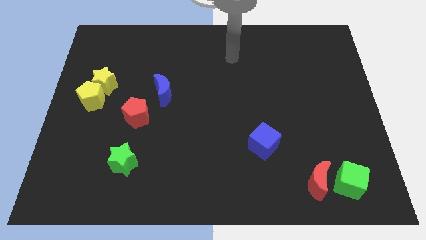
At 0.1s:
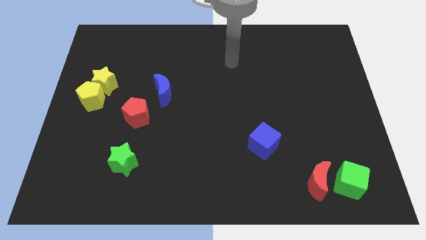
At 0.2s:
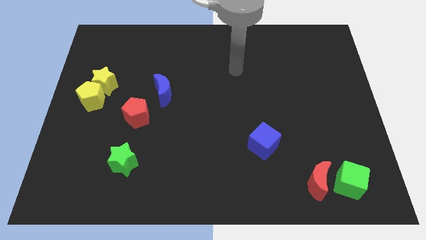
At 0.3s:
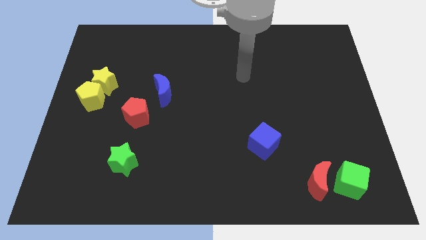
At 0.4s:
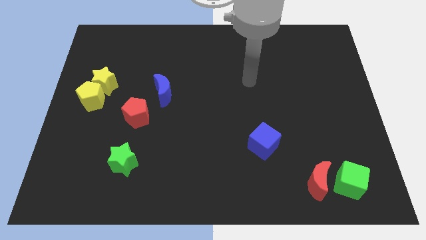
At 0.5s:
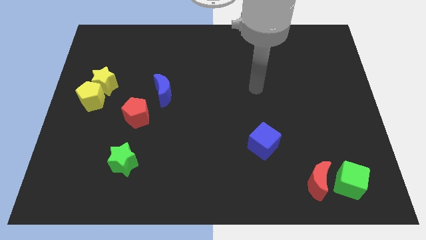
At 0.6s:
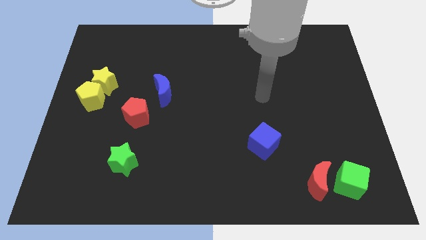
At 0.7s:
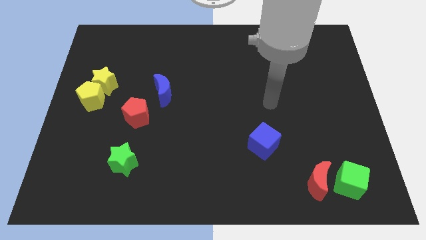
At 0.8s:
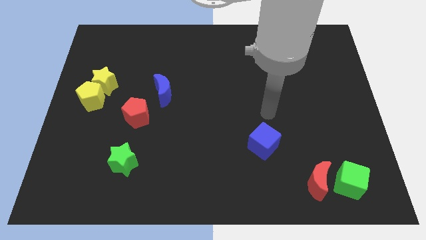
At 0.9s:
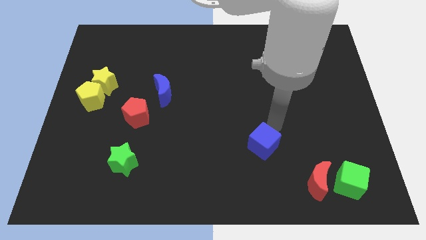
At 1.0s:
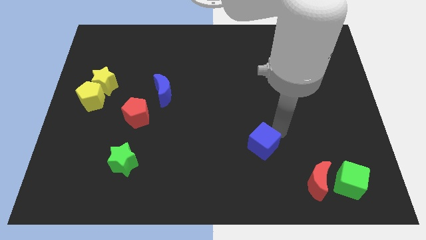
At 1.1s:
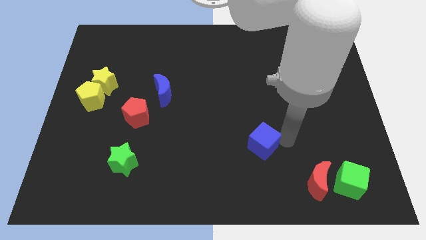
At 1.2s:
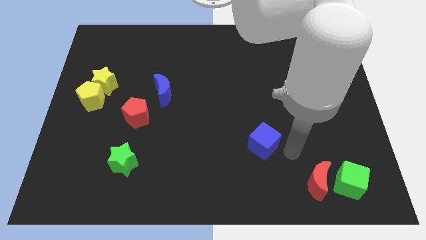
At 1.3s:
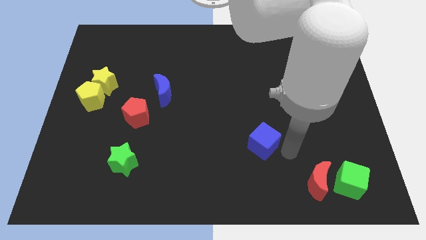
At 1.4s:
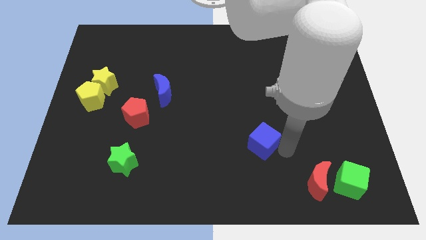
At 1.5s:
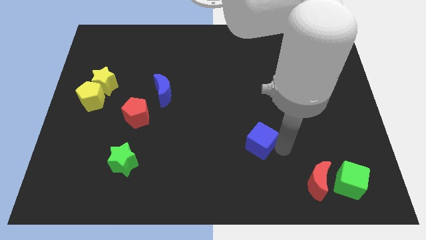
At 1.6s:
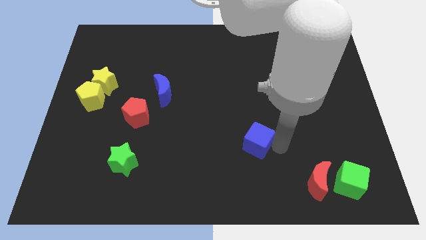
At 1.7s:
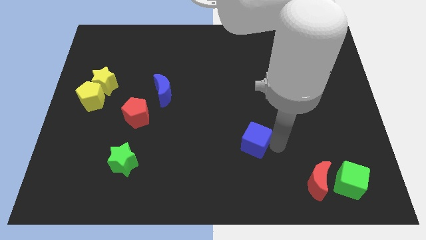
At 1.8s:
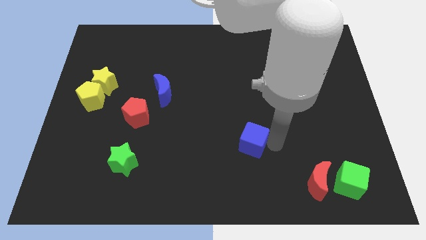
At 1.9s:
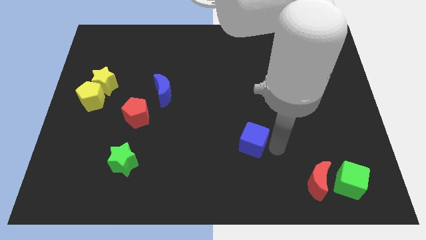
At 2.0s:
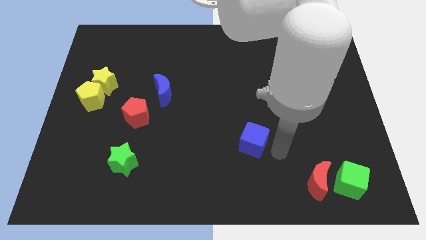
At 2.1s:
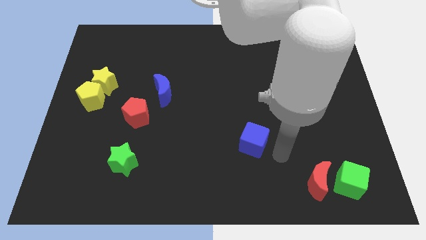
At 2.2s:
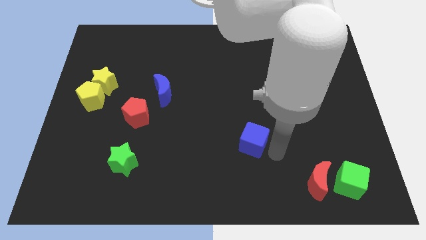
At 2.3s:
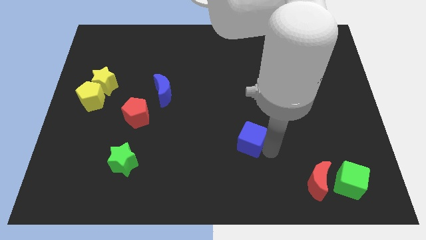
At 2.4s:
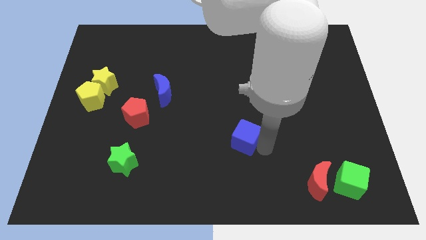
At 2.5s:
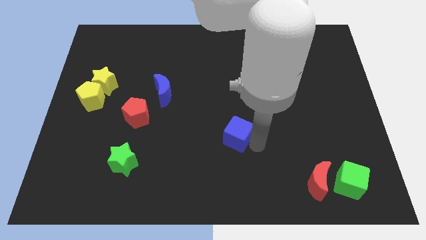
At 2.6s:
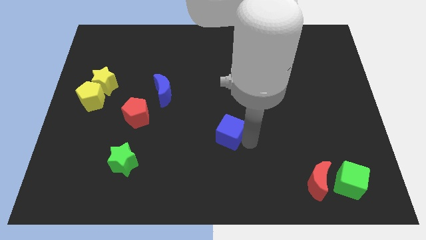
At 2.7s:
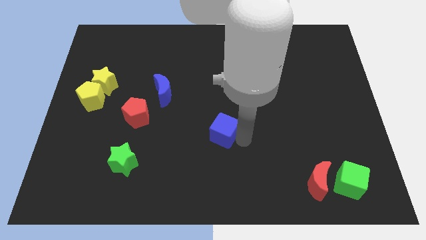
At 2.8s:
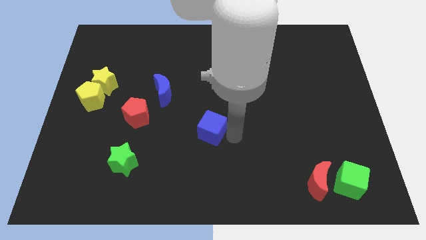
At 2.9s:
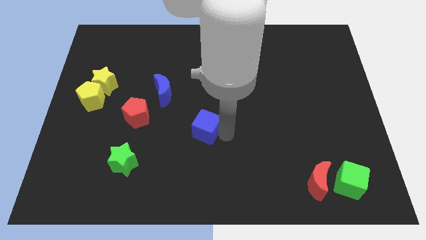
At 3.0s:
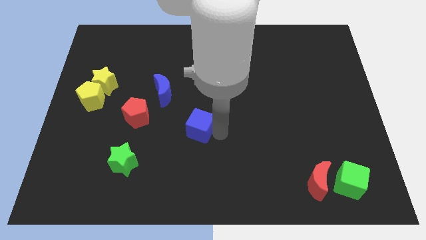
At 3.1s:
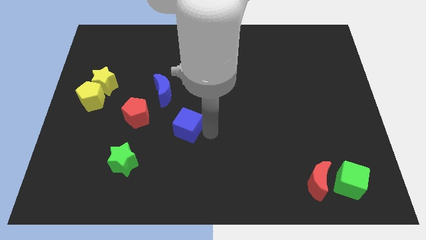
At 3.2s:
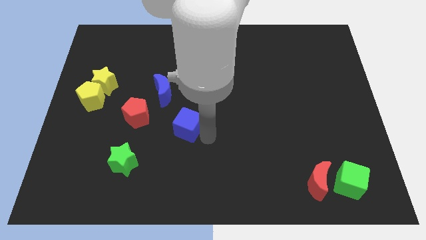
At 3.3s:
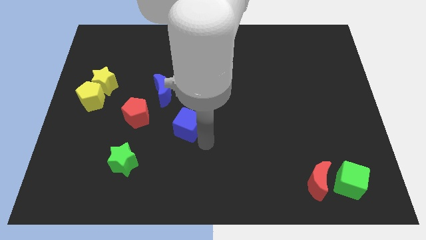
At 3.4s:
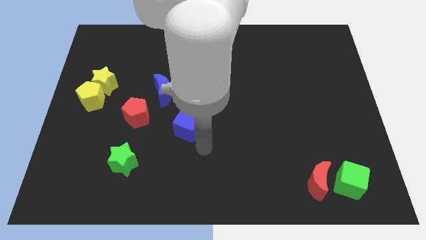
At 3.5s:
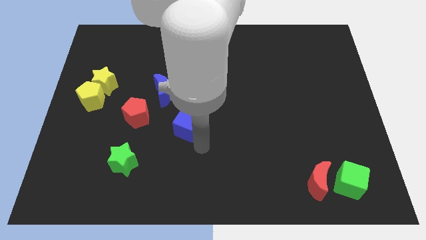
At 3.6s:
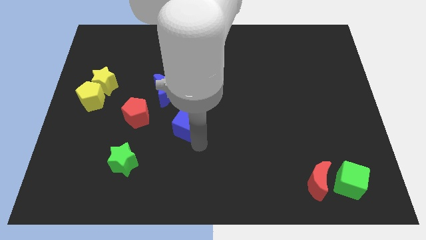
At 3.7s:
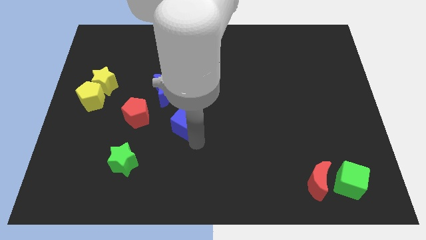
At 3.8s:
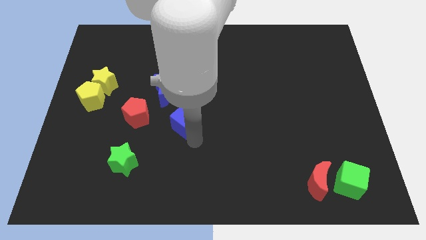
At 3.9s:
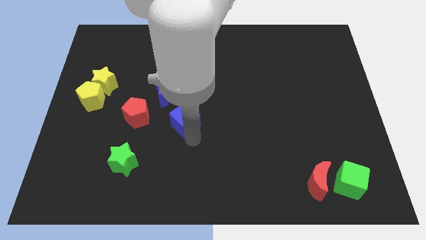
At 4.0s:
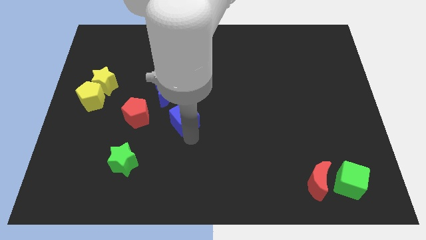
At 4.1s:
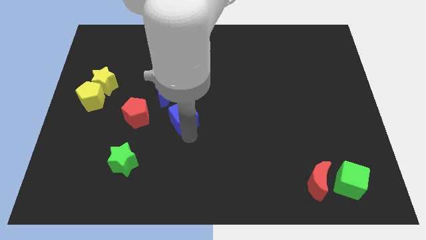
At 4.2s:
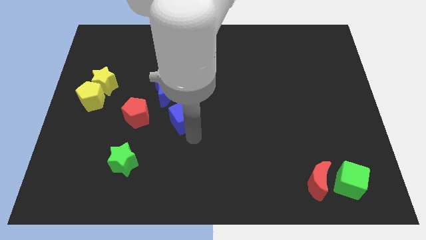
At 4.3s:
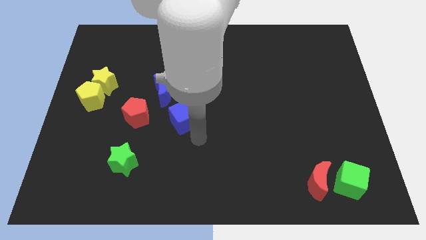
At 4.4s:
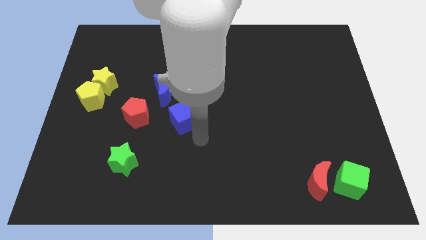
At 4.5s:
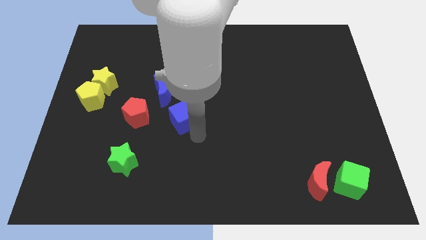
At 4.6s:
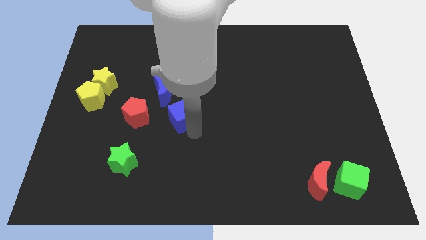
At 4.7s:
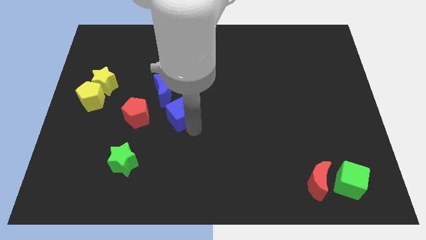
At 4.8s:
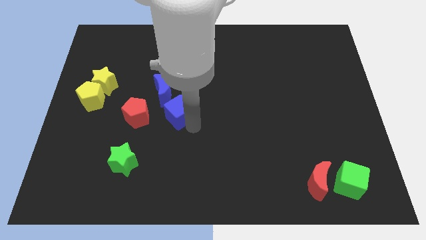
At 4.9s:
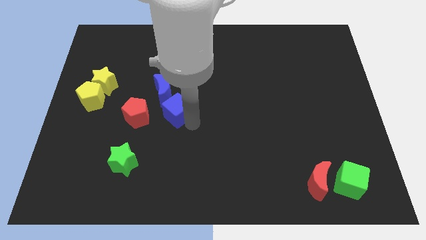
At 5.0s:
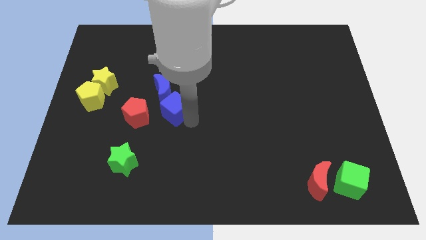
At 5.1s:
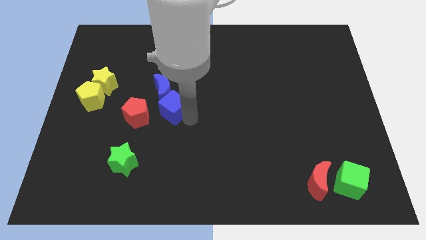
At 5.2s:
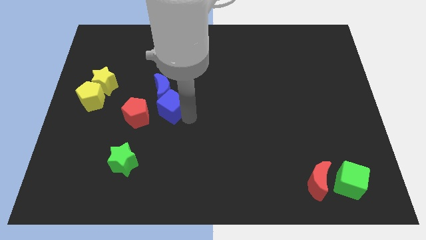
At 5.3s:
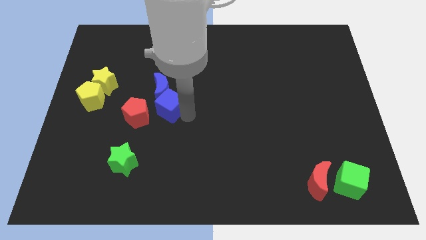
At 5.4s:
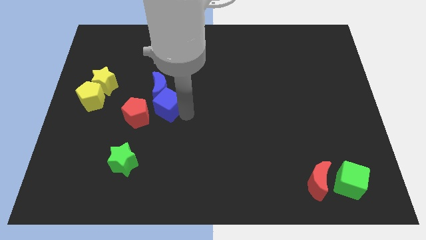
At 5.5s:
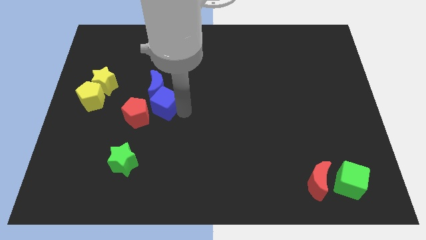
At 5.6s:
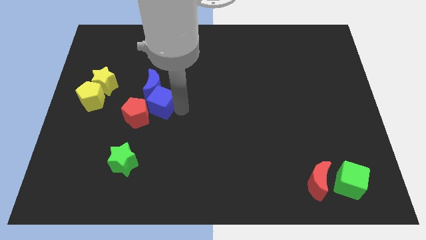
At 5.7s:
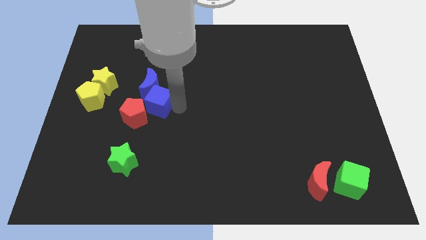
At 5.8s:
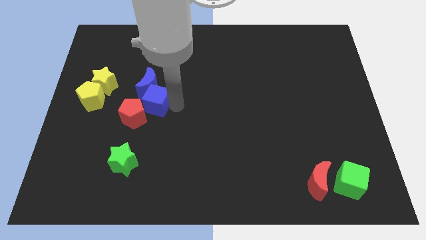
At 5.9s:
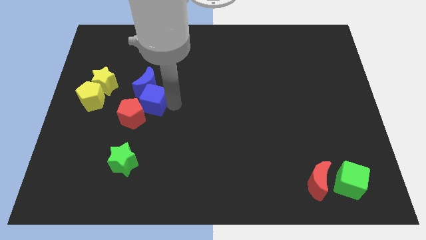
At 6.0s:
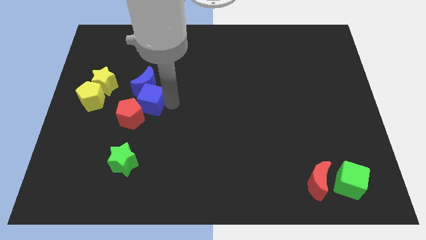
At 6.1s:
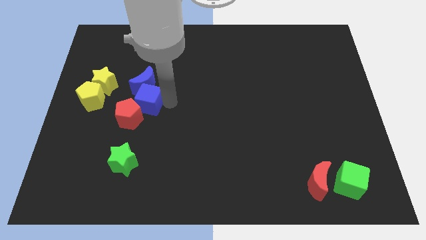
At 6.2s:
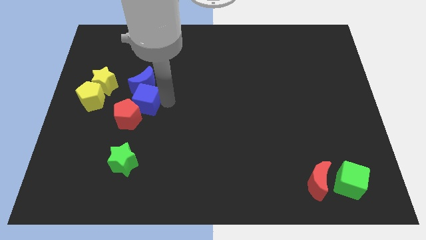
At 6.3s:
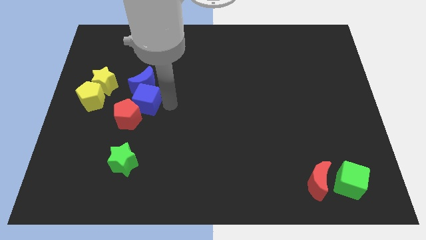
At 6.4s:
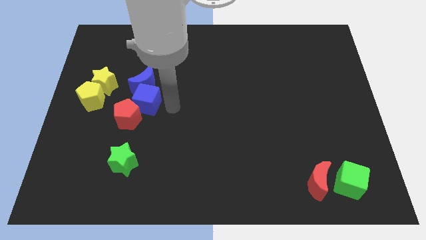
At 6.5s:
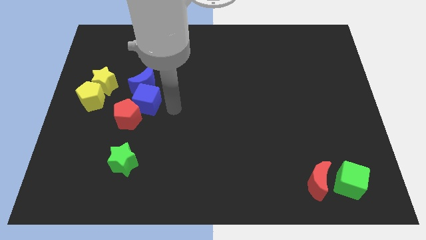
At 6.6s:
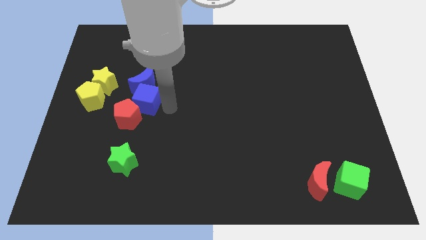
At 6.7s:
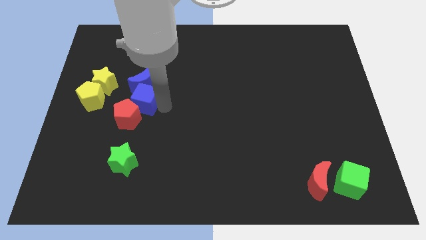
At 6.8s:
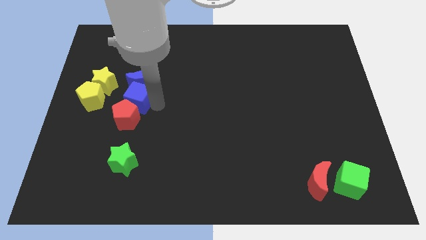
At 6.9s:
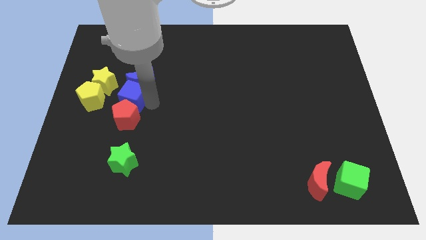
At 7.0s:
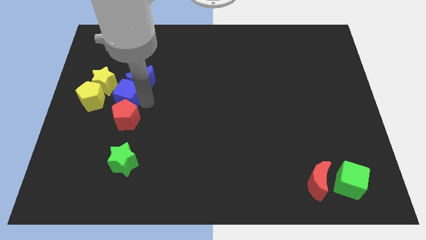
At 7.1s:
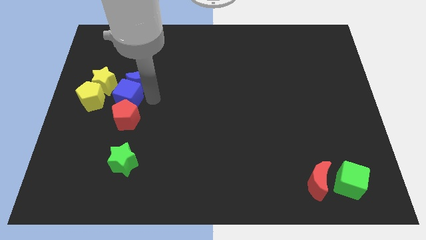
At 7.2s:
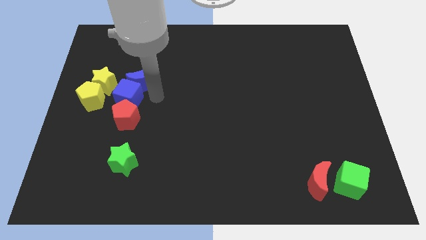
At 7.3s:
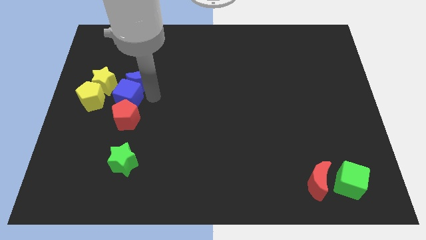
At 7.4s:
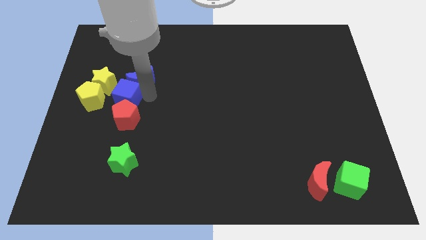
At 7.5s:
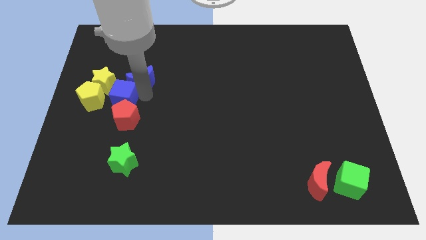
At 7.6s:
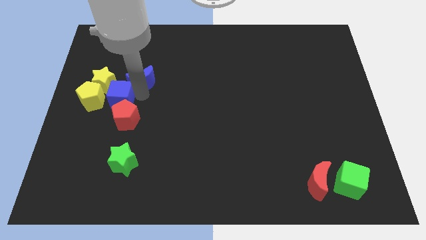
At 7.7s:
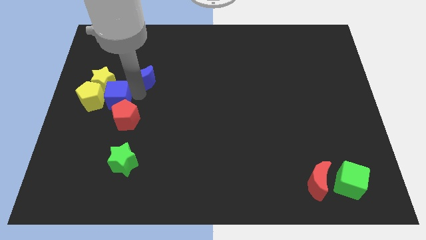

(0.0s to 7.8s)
move the blue cube close to the yellow pentagon
